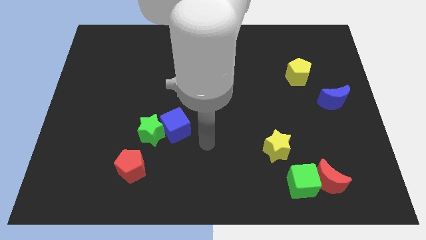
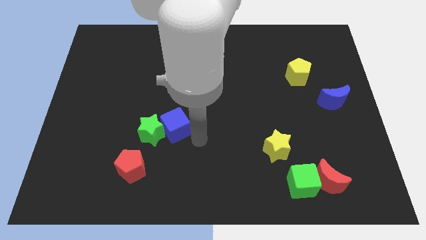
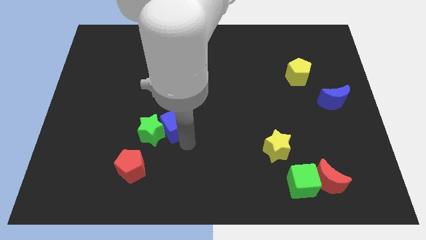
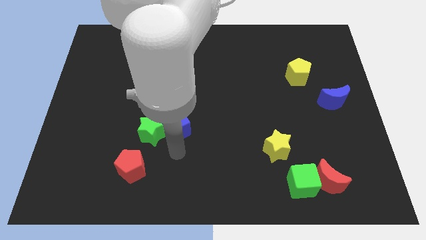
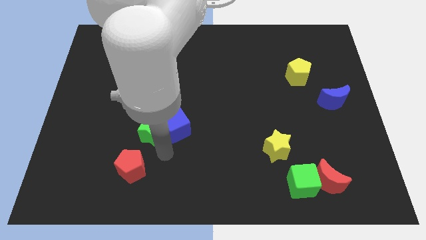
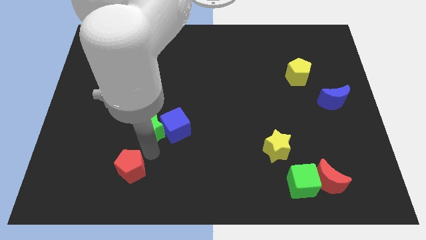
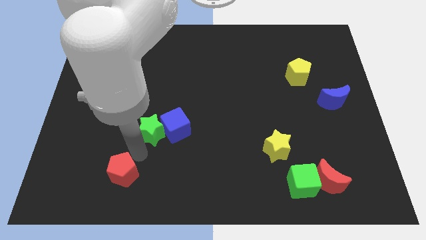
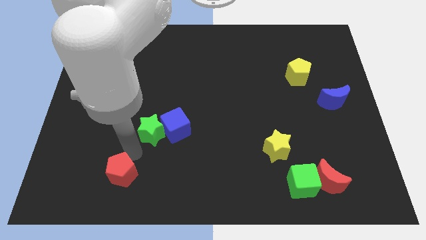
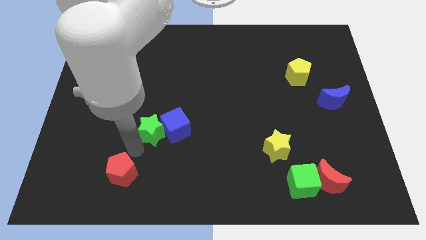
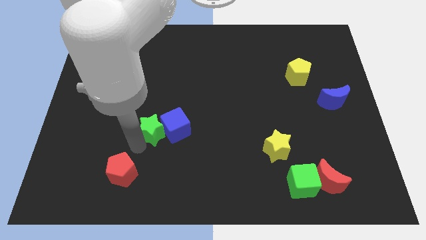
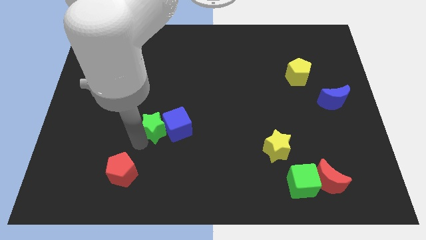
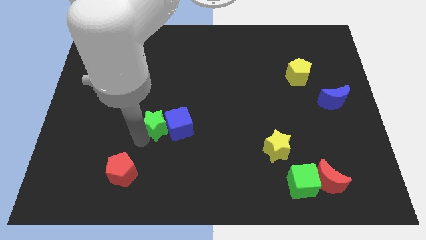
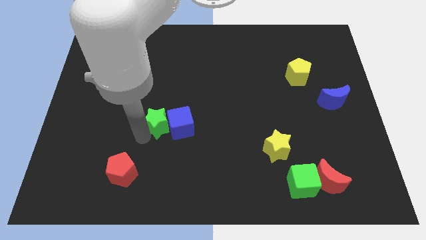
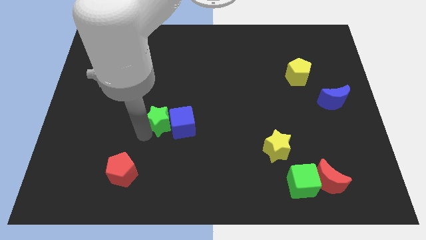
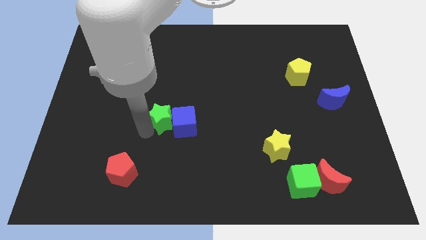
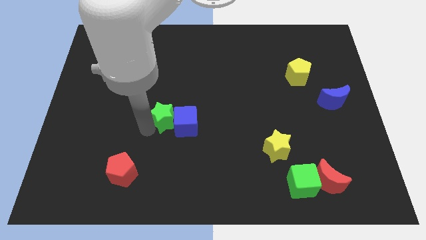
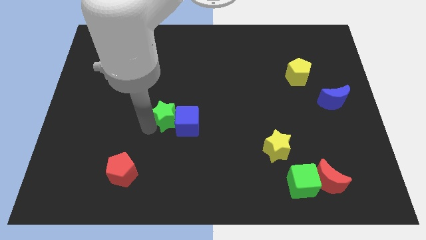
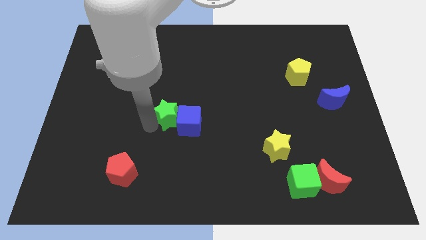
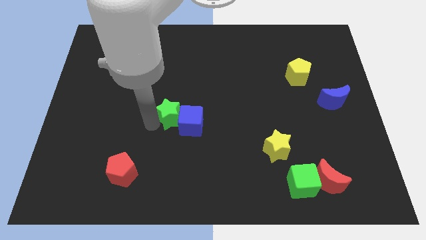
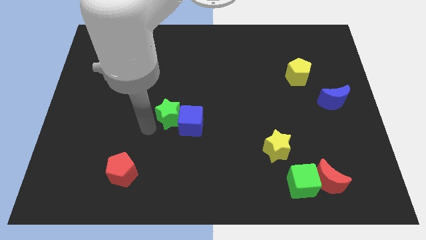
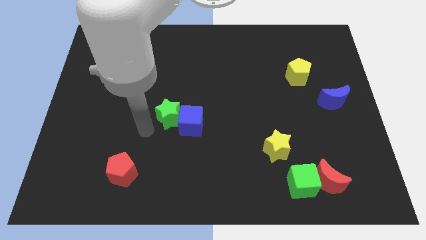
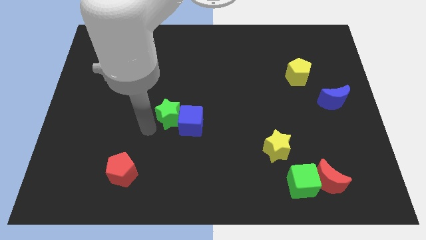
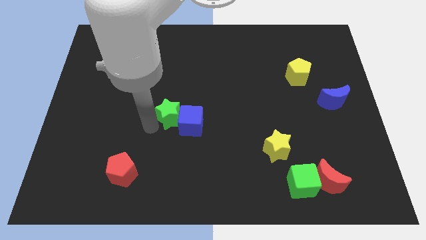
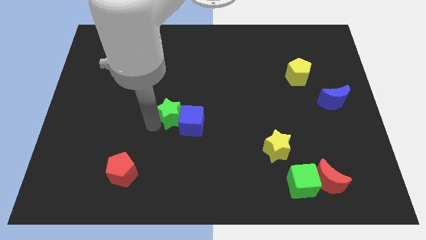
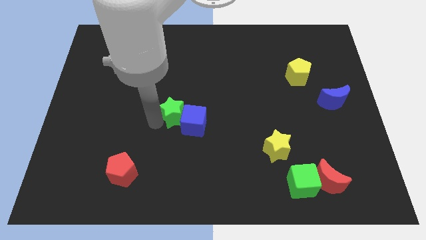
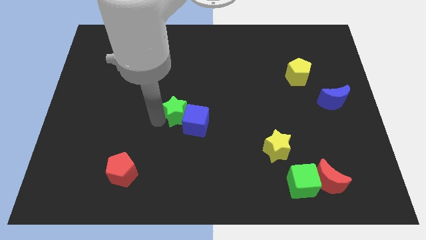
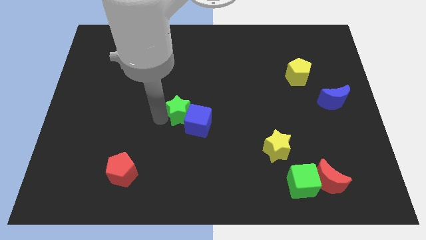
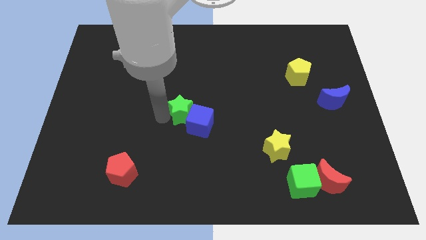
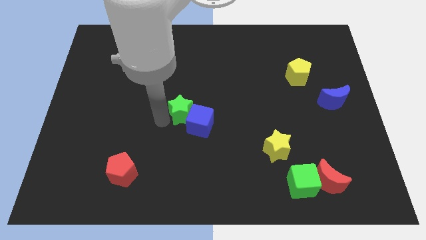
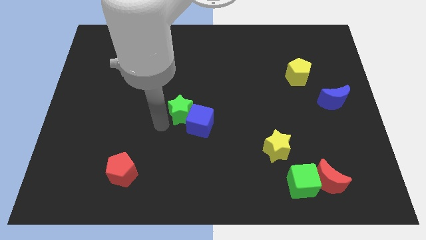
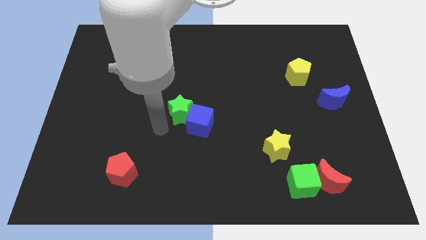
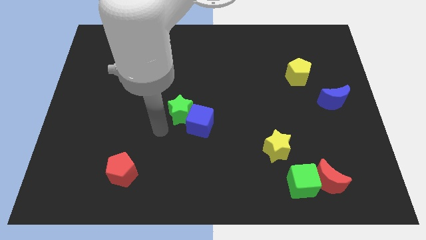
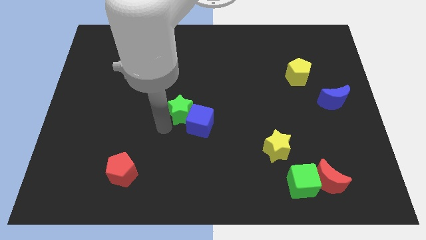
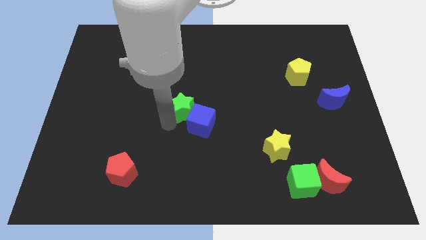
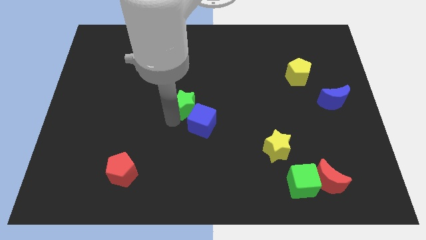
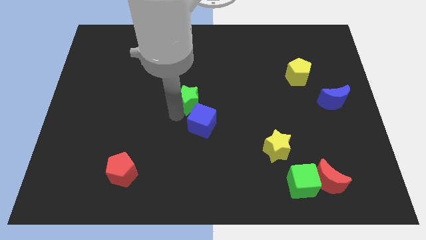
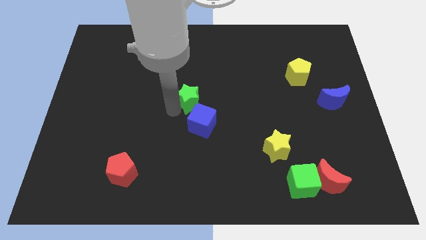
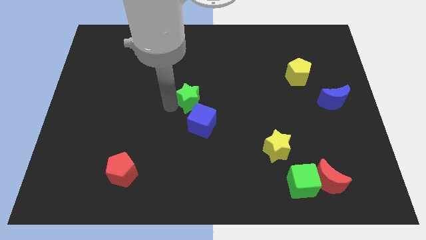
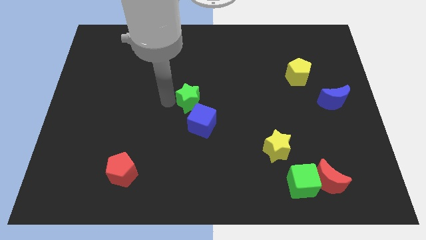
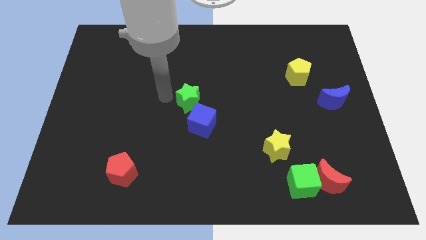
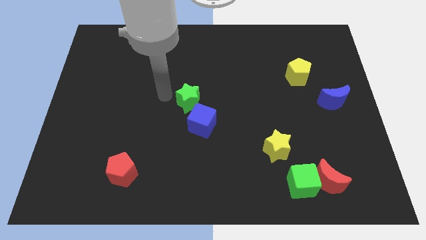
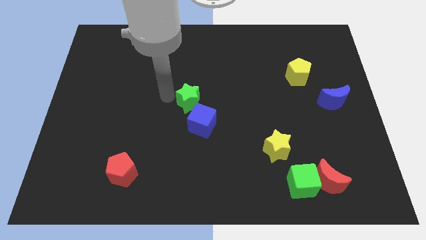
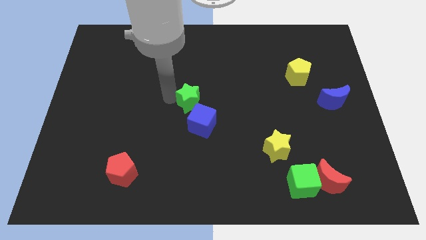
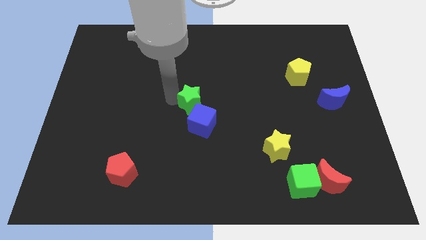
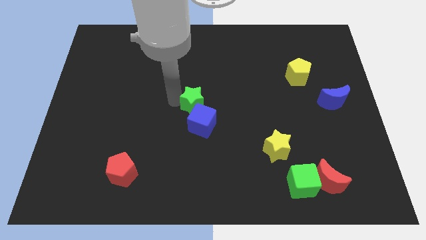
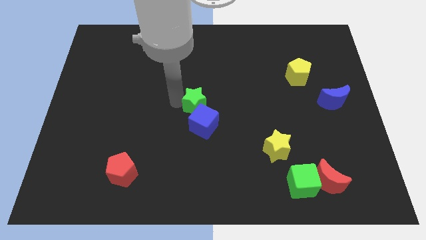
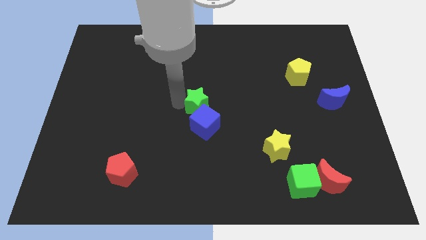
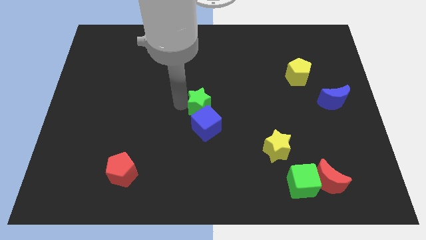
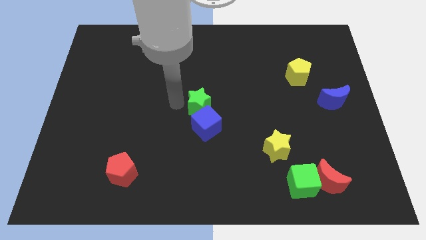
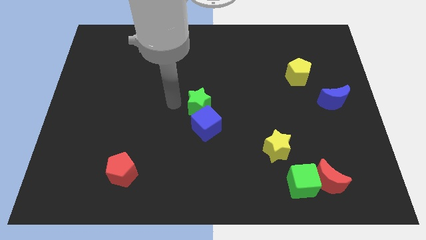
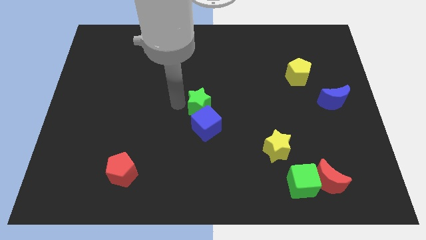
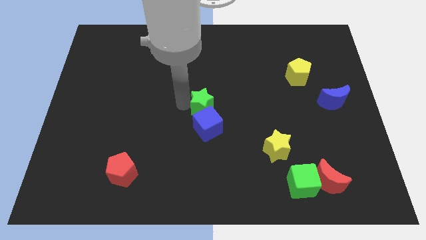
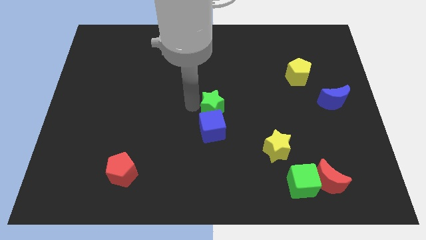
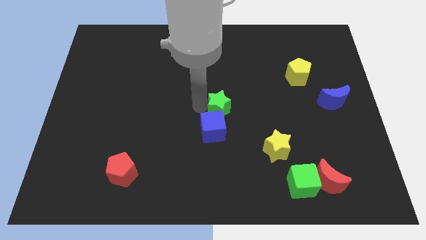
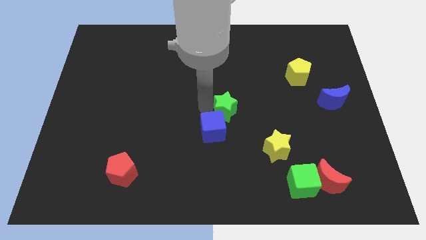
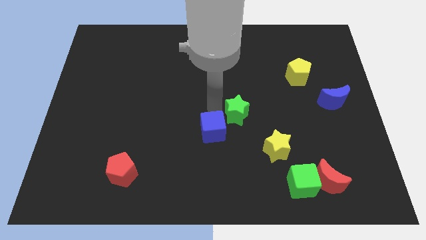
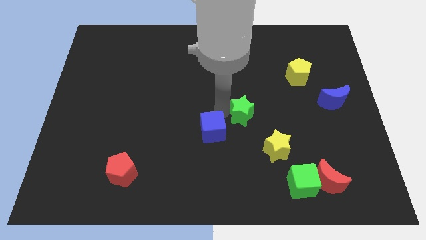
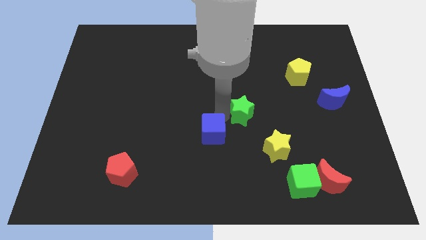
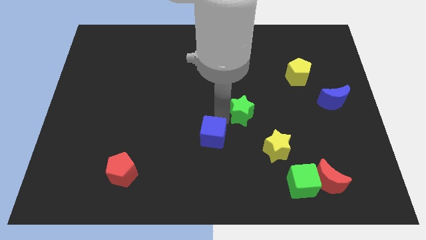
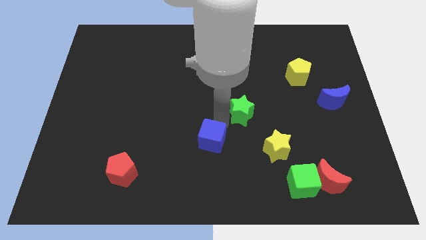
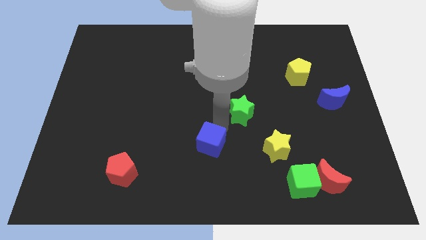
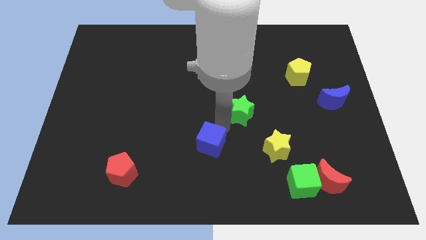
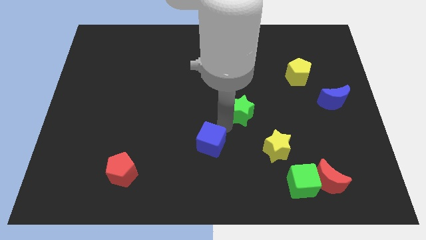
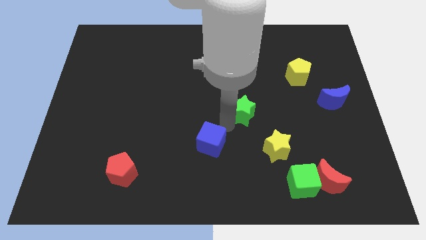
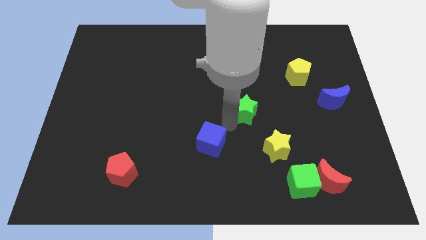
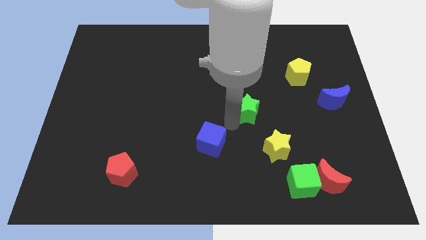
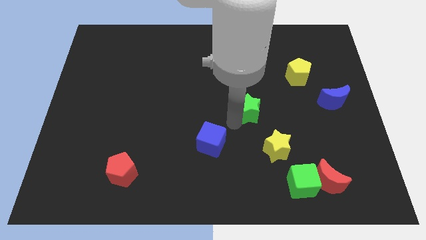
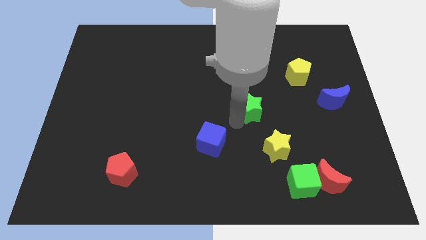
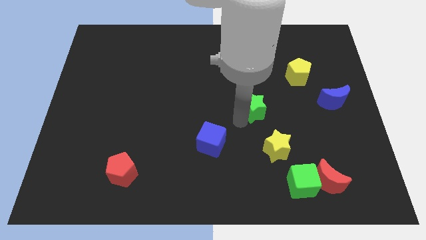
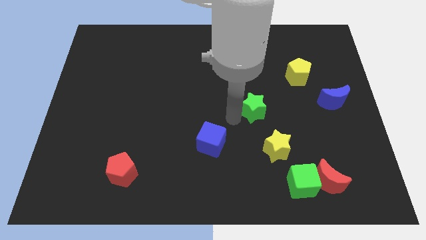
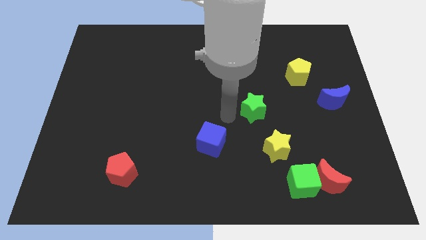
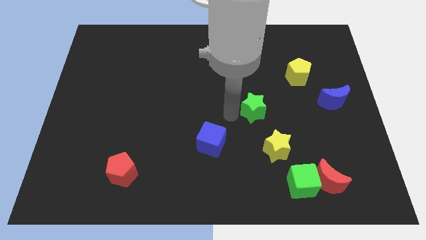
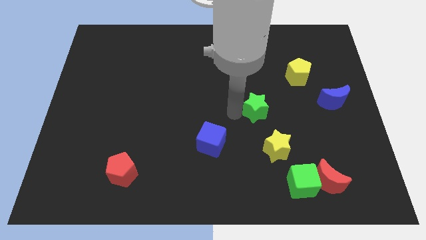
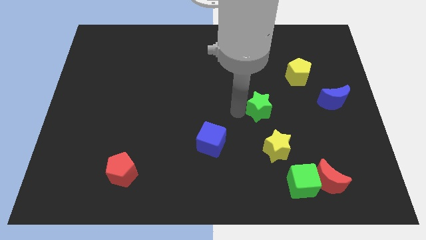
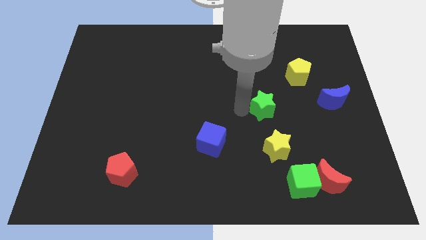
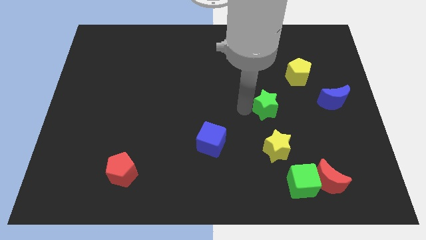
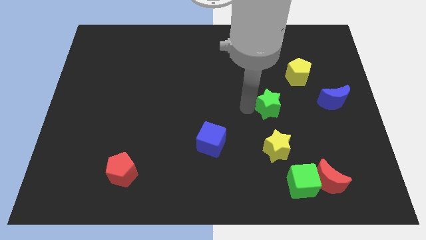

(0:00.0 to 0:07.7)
move the green star to the left of the blue moon
